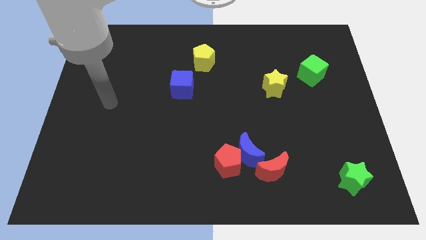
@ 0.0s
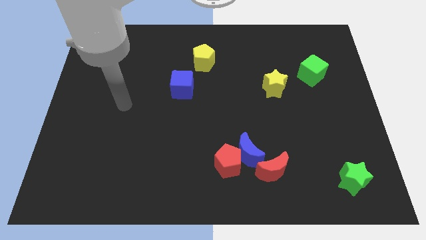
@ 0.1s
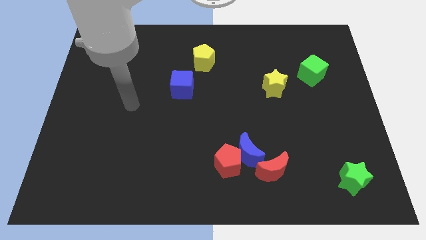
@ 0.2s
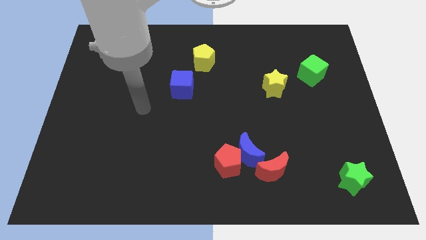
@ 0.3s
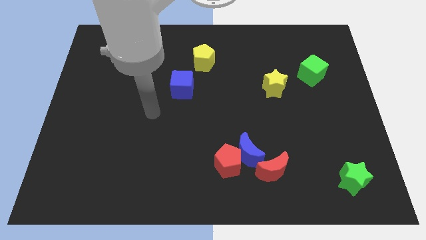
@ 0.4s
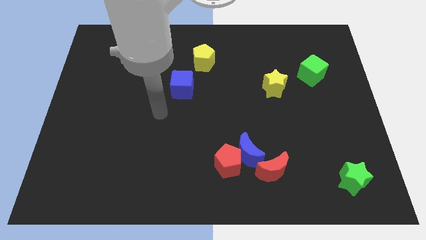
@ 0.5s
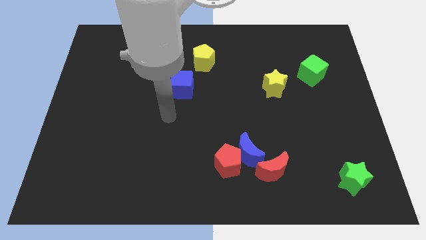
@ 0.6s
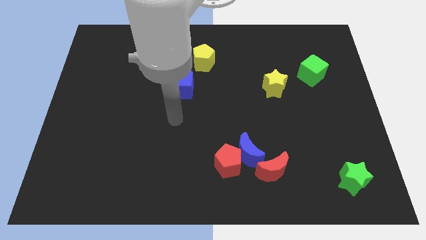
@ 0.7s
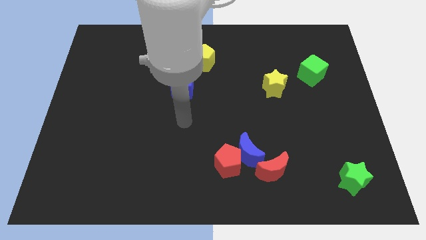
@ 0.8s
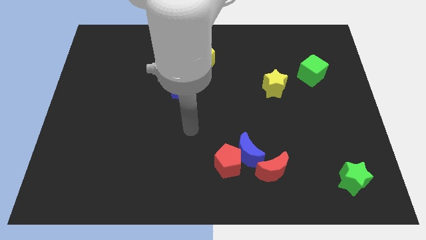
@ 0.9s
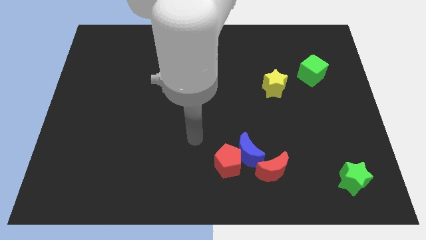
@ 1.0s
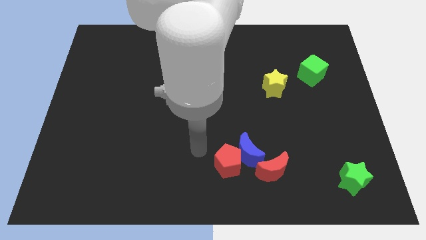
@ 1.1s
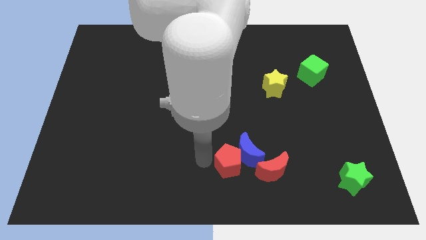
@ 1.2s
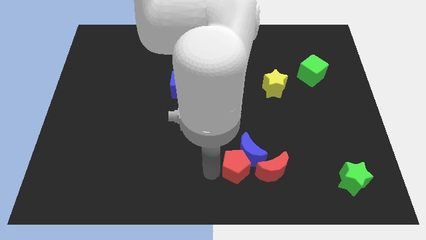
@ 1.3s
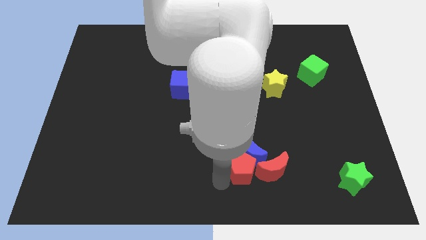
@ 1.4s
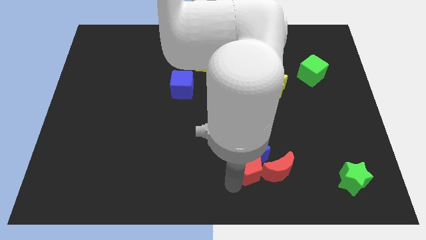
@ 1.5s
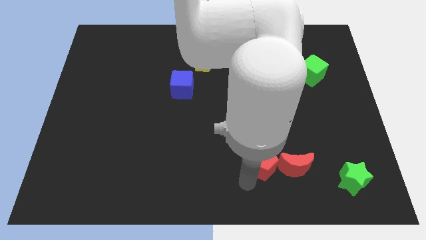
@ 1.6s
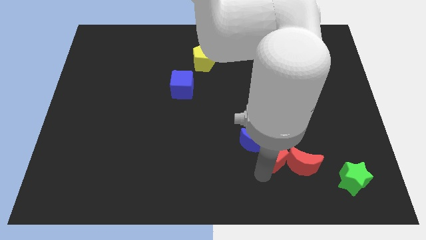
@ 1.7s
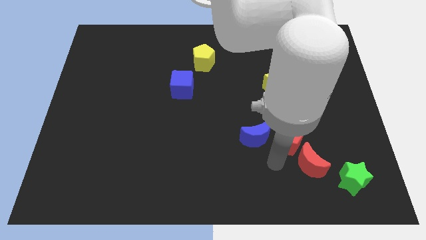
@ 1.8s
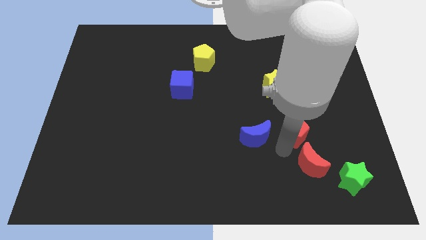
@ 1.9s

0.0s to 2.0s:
move the blue moon away from the red pentagon and red moon

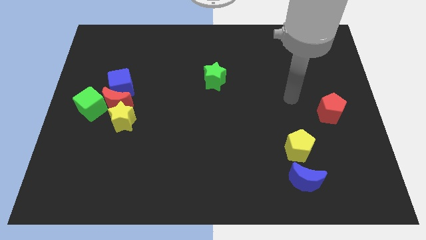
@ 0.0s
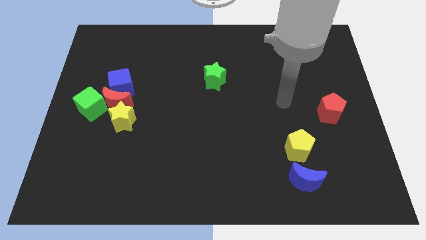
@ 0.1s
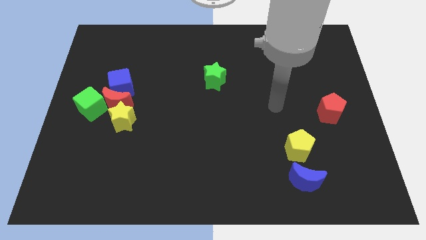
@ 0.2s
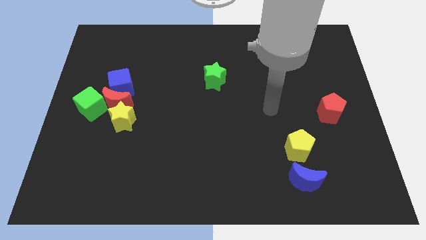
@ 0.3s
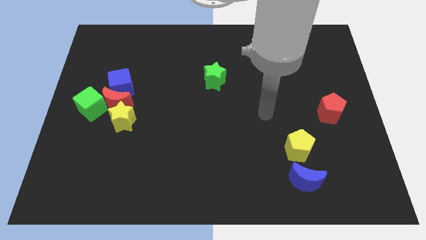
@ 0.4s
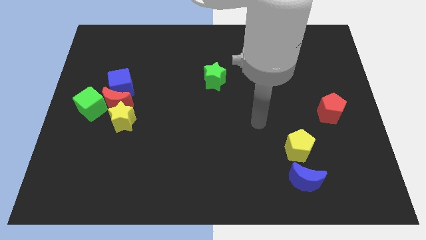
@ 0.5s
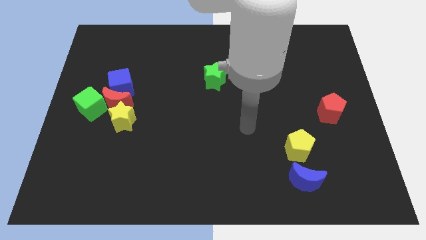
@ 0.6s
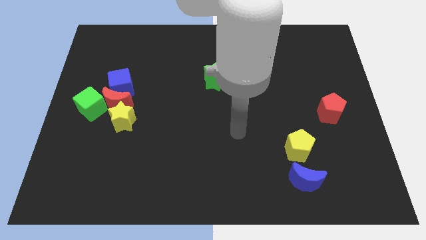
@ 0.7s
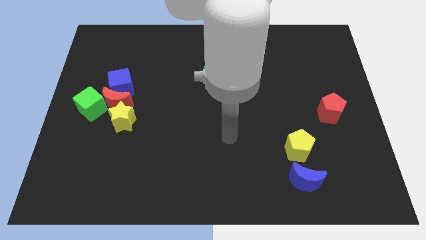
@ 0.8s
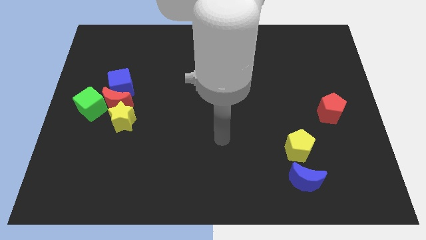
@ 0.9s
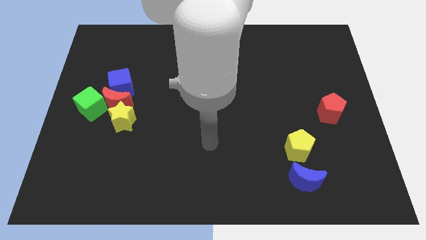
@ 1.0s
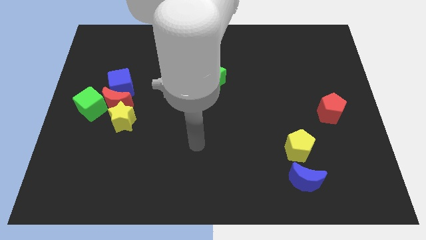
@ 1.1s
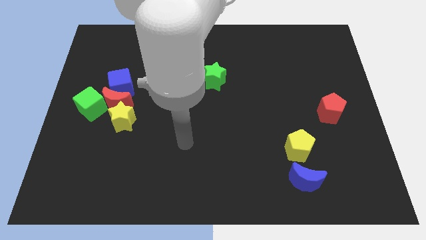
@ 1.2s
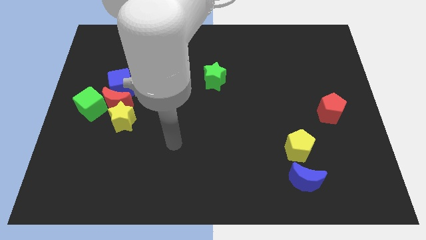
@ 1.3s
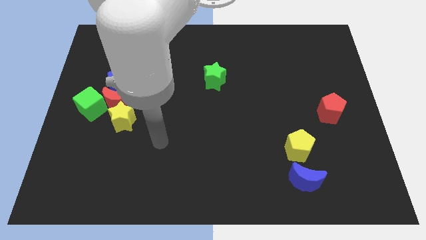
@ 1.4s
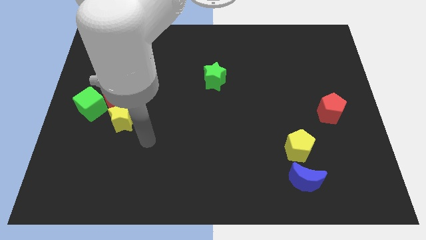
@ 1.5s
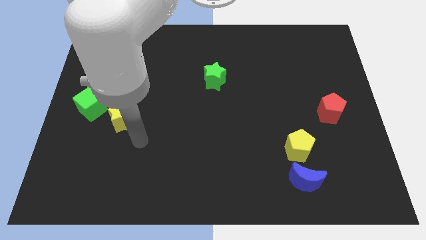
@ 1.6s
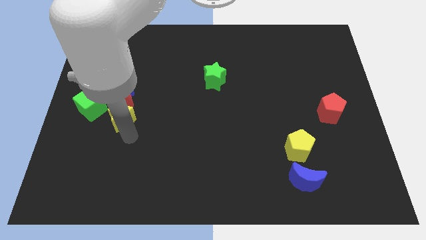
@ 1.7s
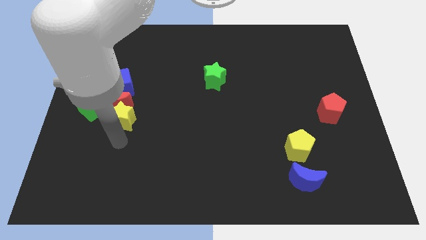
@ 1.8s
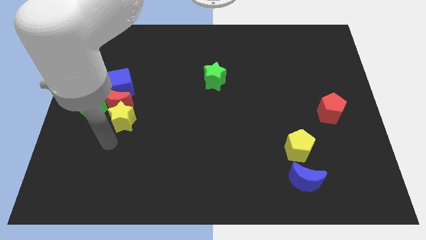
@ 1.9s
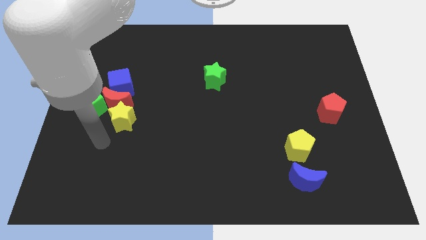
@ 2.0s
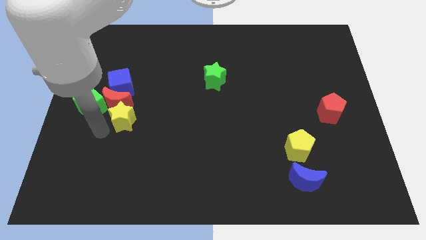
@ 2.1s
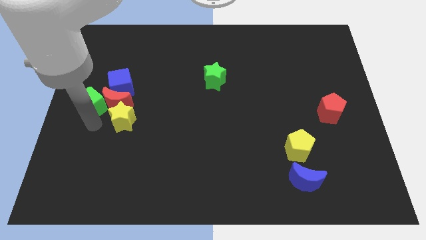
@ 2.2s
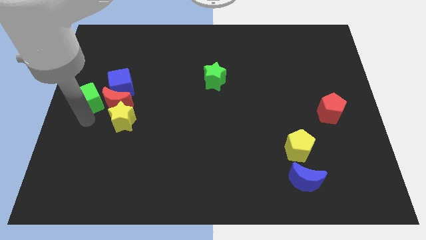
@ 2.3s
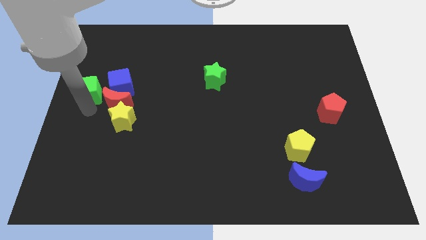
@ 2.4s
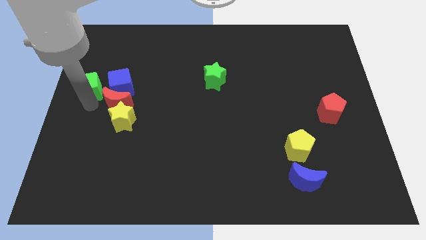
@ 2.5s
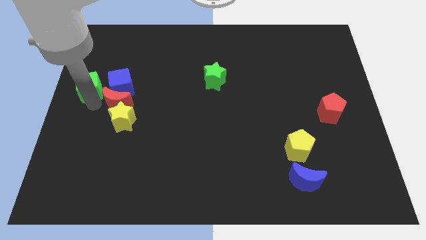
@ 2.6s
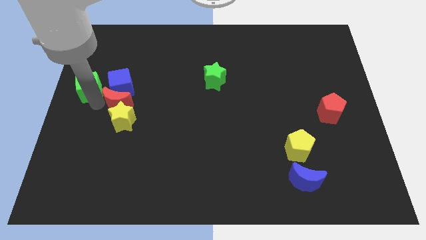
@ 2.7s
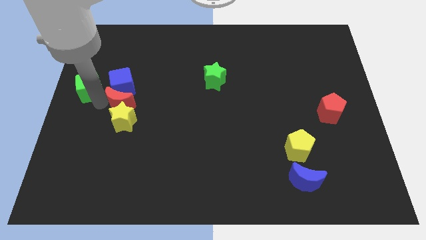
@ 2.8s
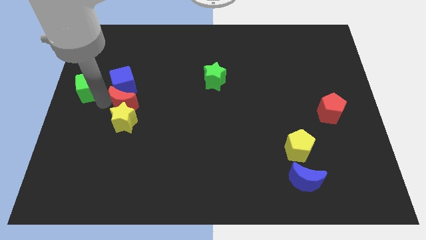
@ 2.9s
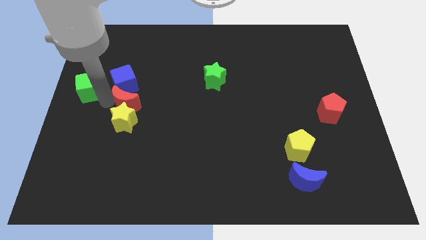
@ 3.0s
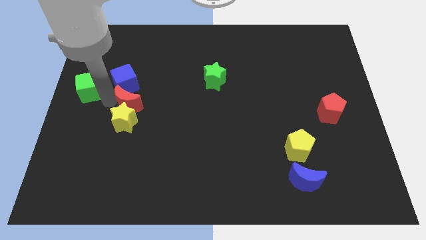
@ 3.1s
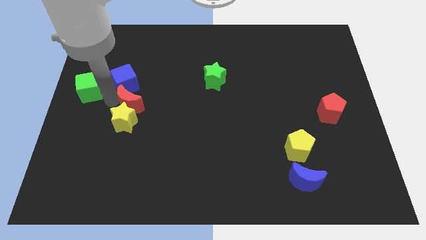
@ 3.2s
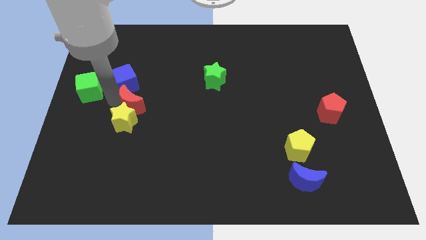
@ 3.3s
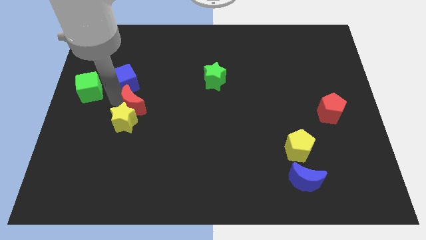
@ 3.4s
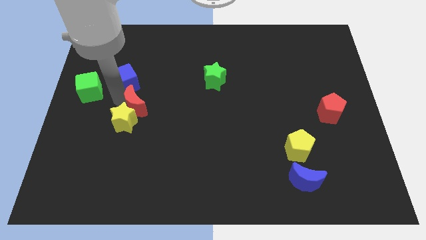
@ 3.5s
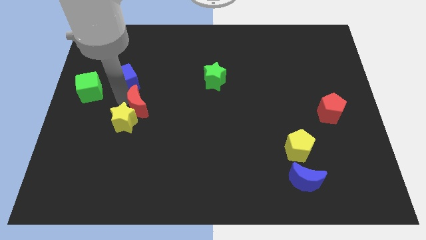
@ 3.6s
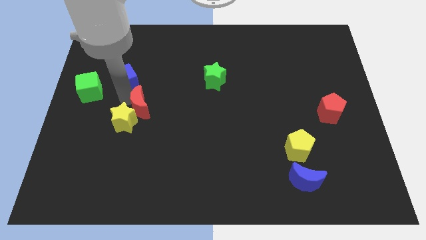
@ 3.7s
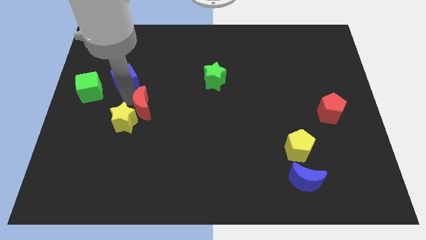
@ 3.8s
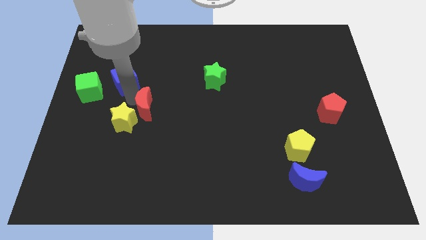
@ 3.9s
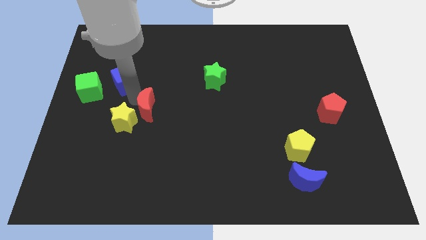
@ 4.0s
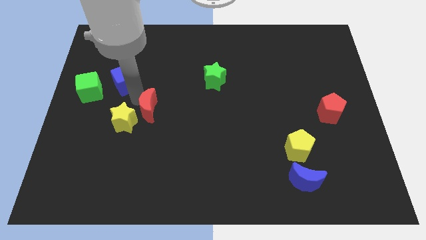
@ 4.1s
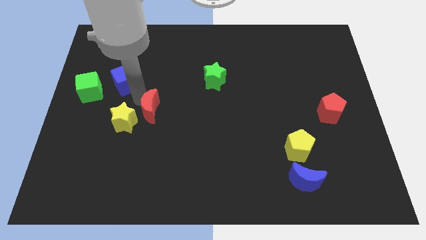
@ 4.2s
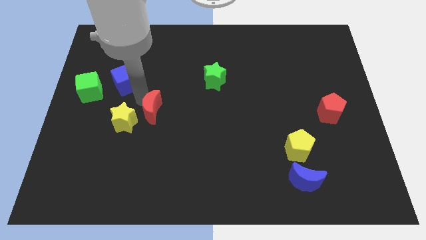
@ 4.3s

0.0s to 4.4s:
separate the red moon from the yellow star, blue cube, and green cube

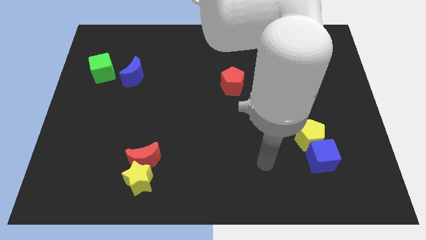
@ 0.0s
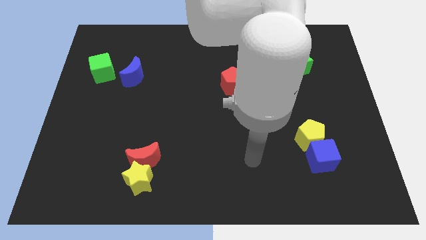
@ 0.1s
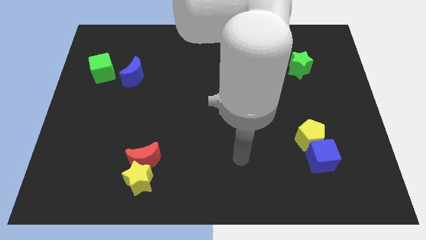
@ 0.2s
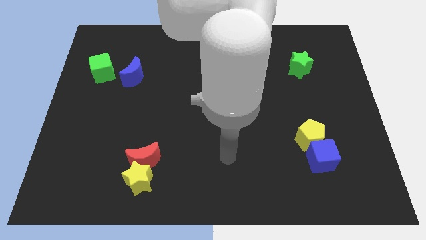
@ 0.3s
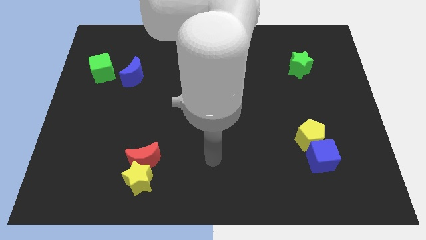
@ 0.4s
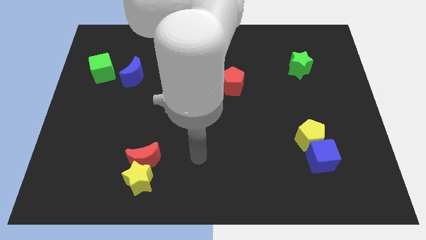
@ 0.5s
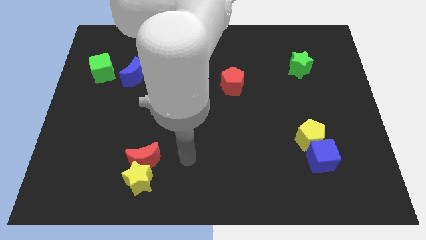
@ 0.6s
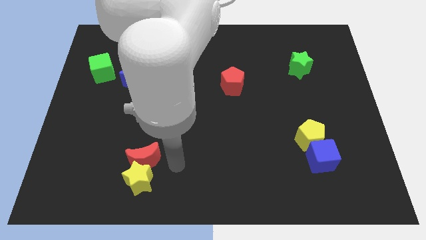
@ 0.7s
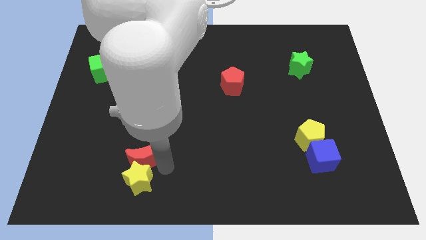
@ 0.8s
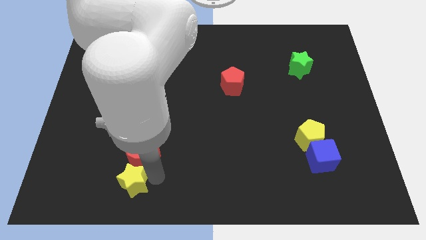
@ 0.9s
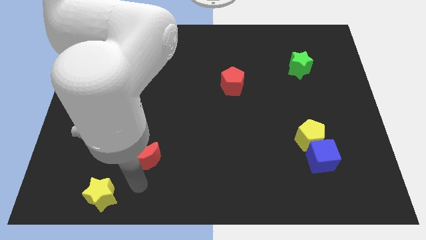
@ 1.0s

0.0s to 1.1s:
move the red moon away from the yellow star

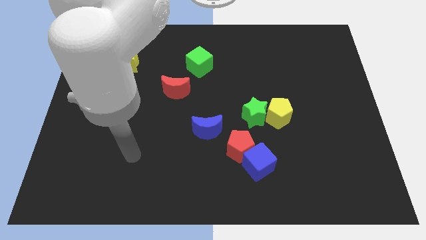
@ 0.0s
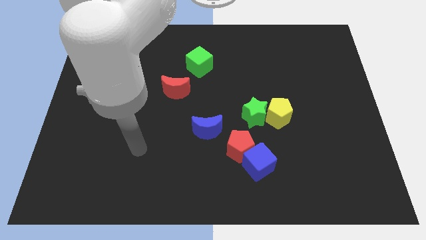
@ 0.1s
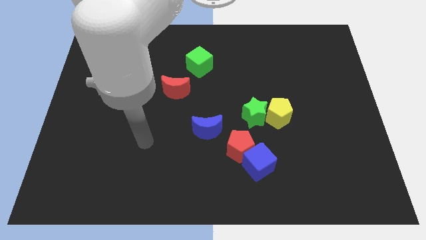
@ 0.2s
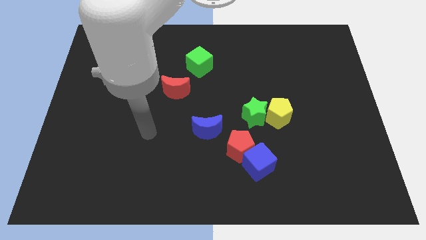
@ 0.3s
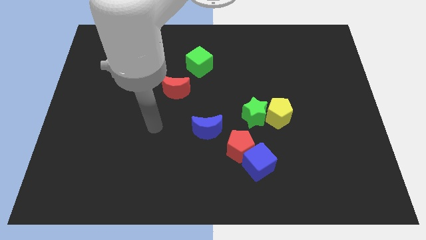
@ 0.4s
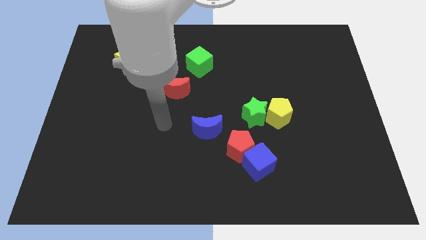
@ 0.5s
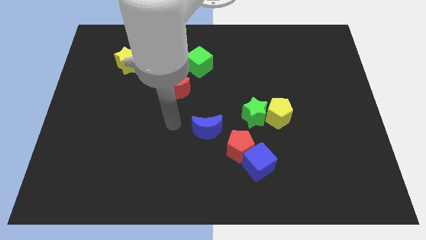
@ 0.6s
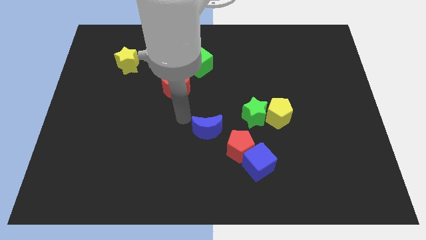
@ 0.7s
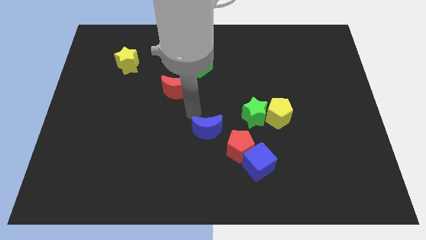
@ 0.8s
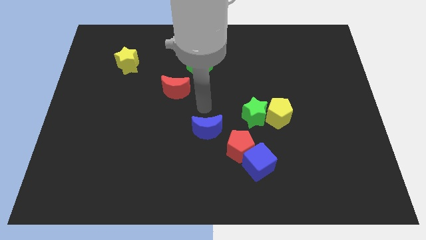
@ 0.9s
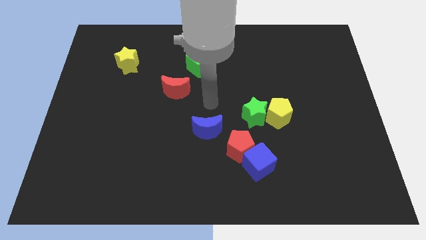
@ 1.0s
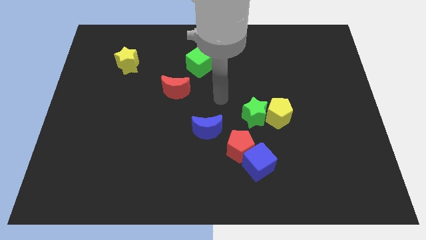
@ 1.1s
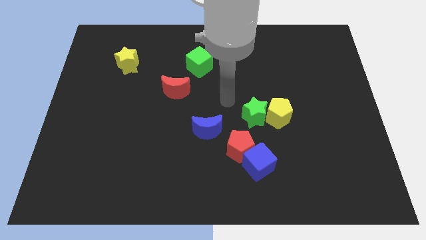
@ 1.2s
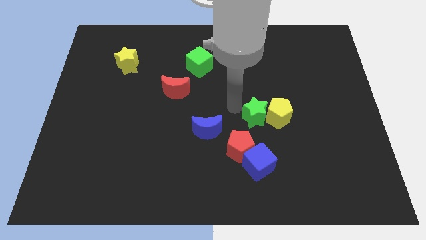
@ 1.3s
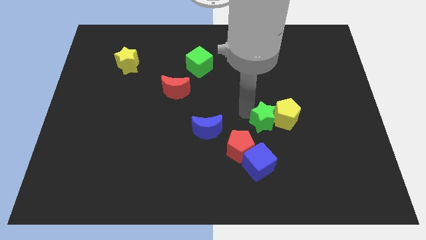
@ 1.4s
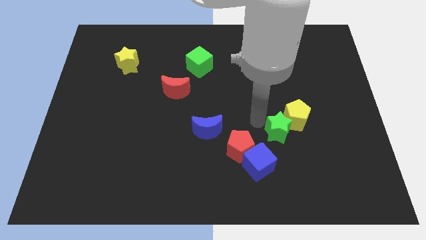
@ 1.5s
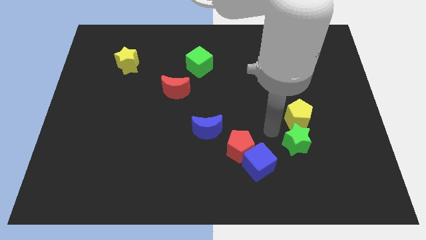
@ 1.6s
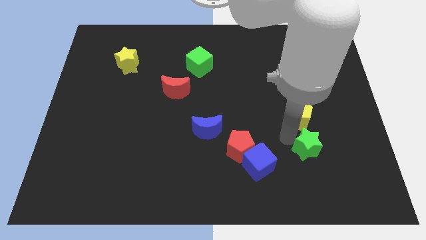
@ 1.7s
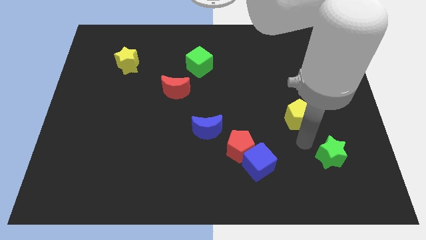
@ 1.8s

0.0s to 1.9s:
pull the yellow pentagon apart from the green star

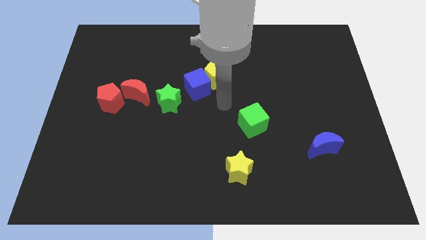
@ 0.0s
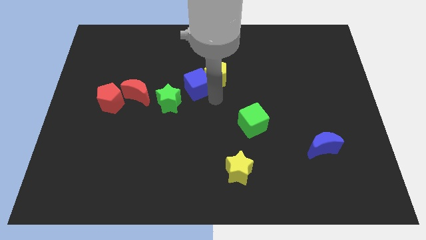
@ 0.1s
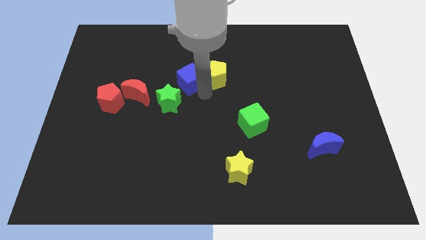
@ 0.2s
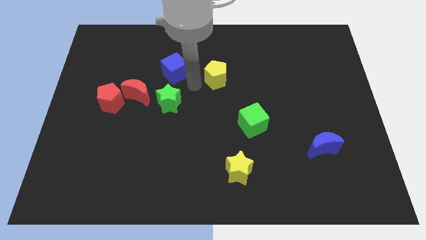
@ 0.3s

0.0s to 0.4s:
pull the yellow pentagon apart from the blue cube
